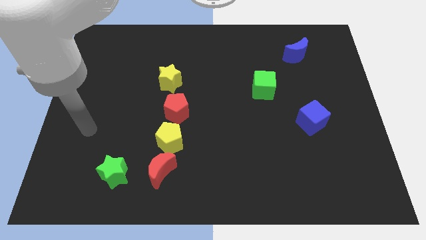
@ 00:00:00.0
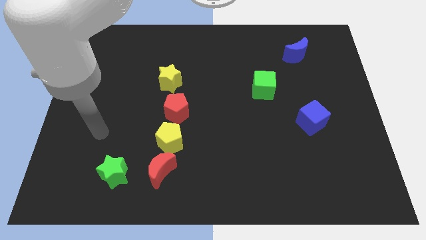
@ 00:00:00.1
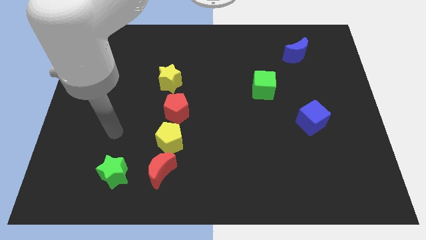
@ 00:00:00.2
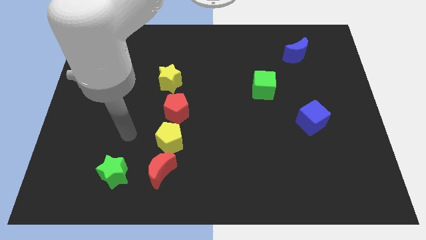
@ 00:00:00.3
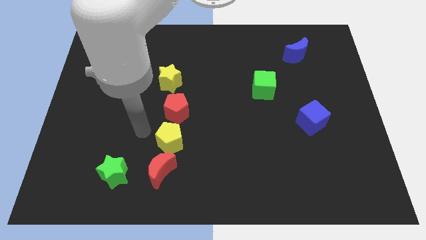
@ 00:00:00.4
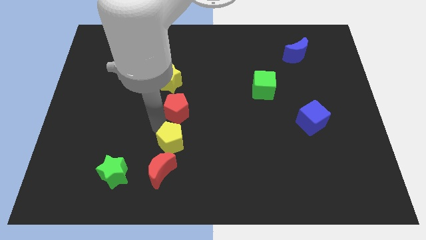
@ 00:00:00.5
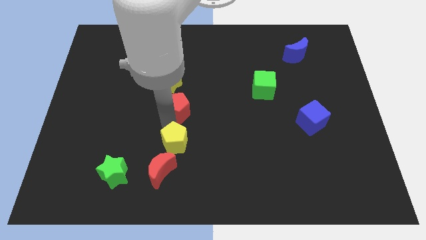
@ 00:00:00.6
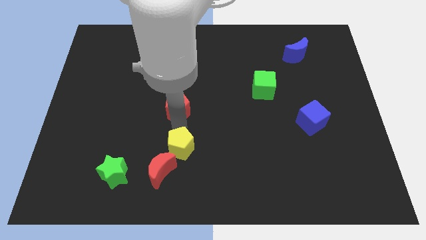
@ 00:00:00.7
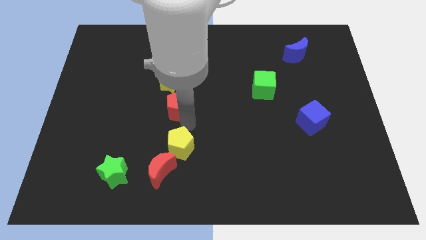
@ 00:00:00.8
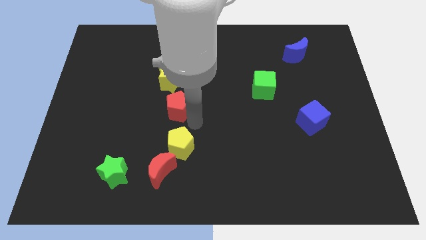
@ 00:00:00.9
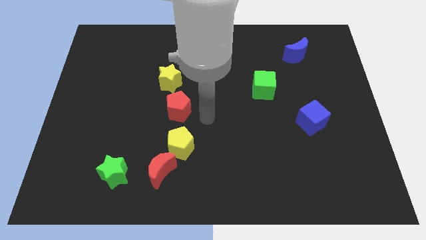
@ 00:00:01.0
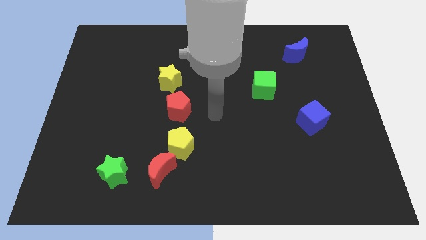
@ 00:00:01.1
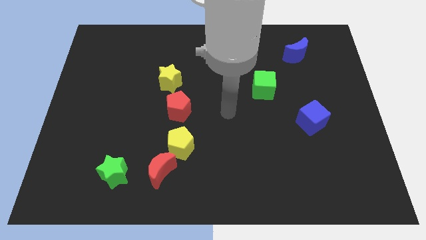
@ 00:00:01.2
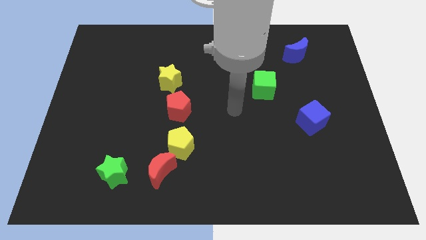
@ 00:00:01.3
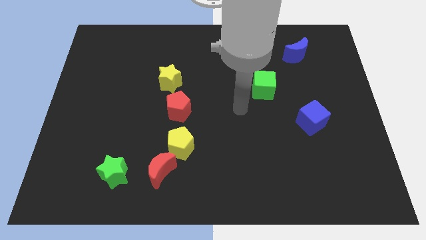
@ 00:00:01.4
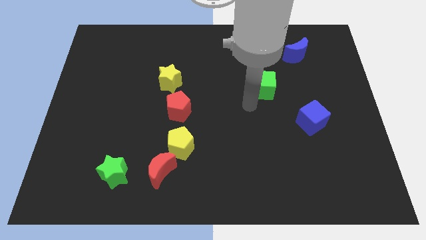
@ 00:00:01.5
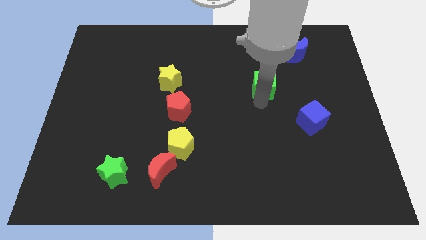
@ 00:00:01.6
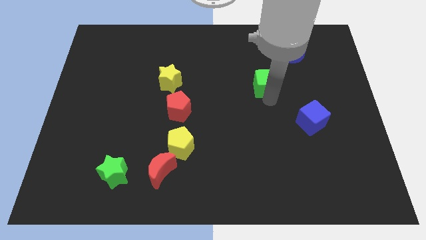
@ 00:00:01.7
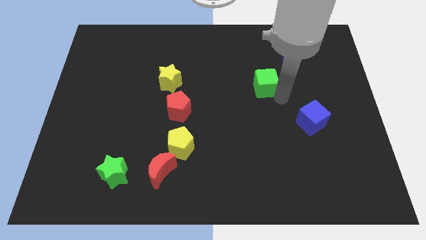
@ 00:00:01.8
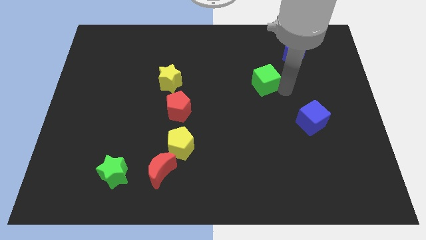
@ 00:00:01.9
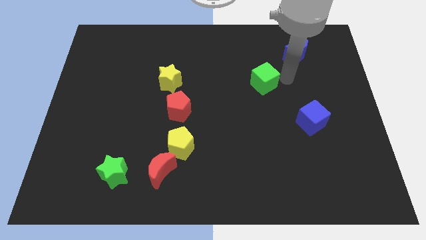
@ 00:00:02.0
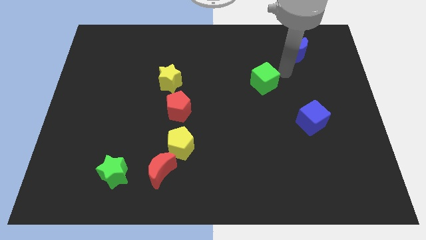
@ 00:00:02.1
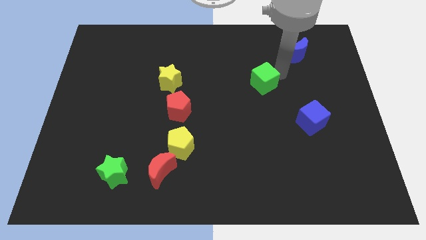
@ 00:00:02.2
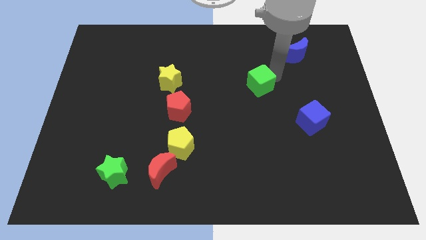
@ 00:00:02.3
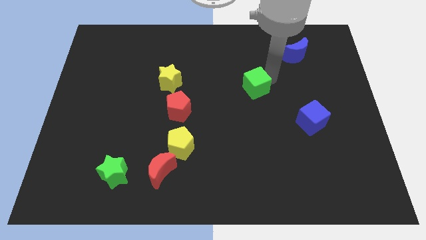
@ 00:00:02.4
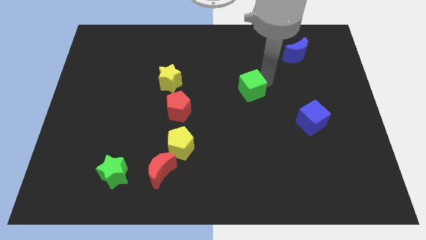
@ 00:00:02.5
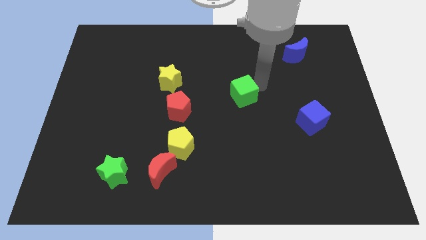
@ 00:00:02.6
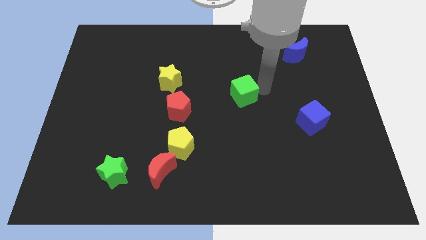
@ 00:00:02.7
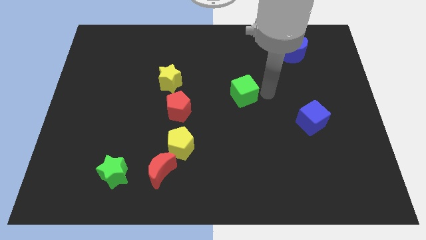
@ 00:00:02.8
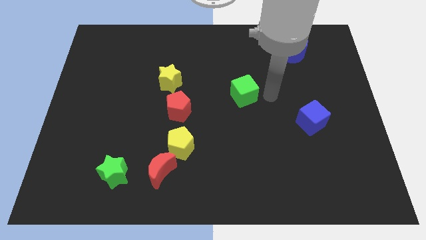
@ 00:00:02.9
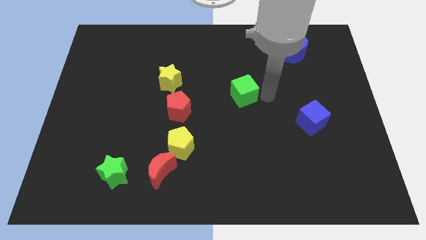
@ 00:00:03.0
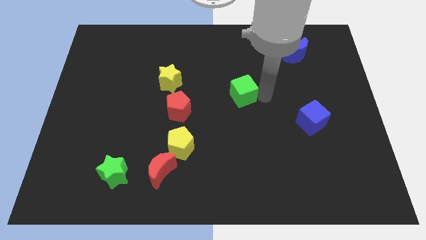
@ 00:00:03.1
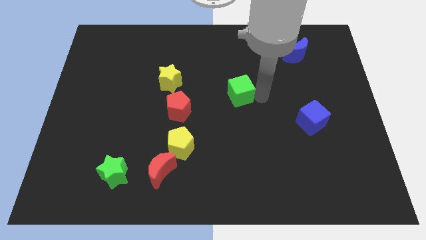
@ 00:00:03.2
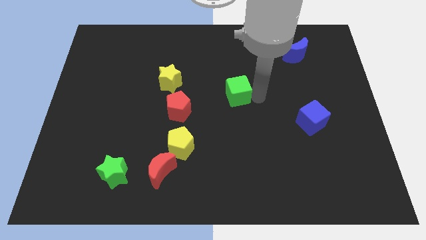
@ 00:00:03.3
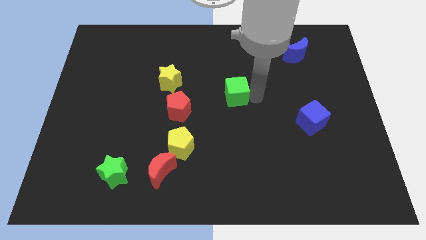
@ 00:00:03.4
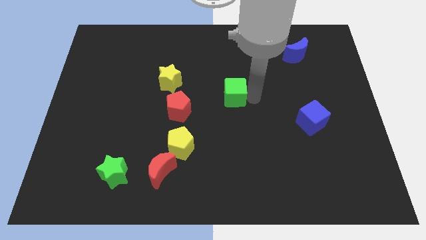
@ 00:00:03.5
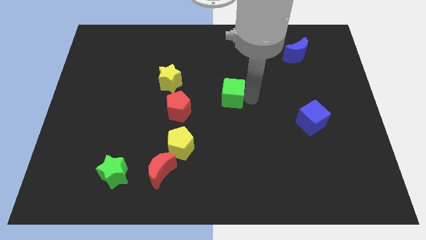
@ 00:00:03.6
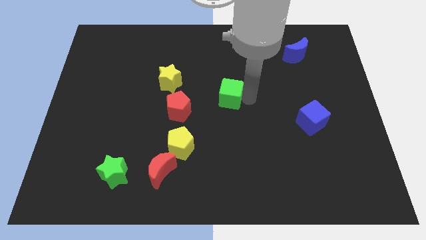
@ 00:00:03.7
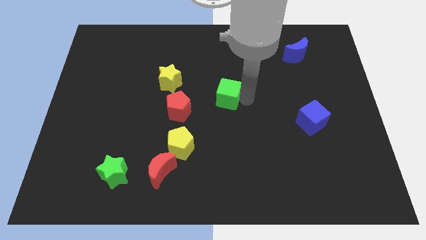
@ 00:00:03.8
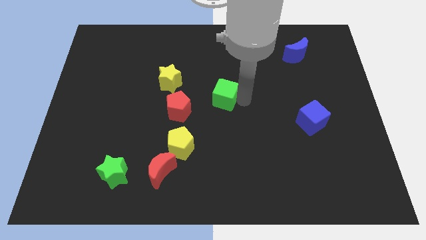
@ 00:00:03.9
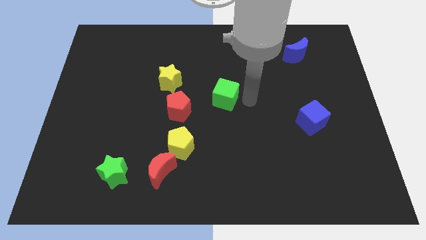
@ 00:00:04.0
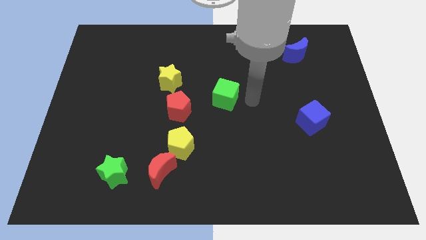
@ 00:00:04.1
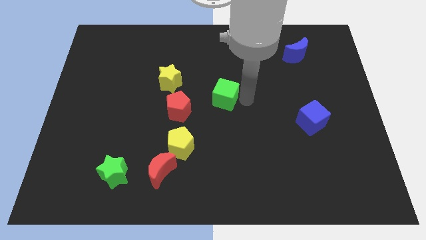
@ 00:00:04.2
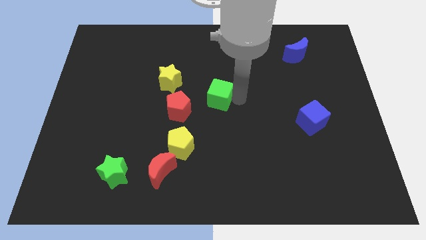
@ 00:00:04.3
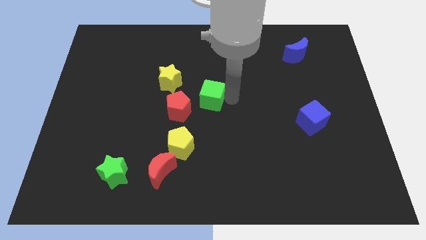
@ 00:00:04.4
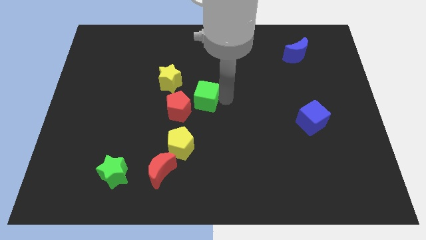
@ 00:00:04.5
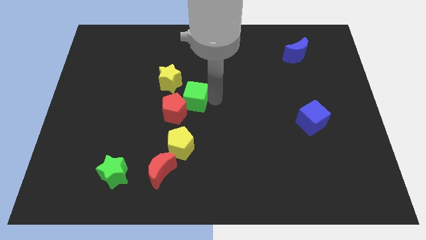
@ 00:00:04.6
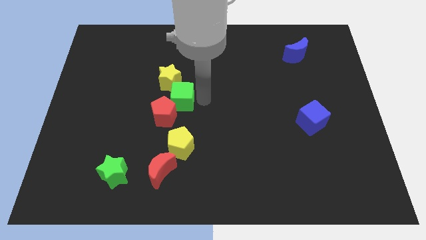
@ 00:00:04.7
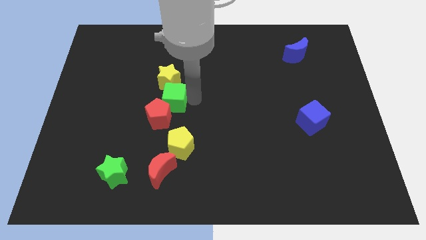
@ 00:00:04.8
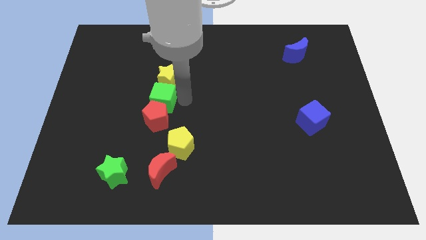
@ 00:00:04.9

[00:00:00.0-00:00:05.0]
move the green cube diagonally up and to the left of the red pentagon

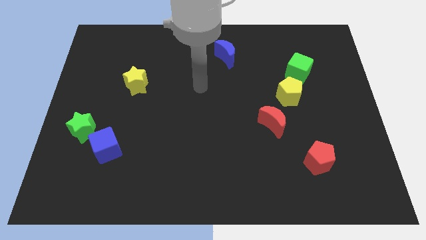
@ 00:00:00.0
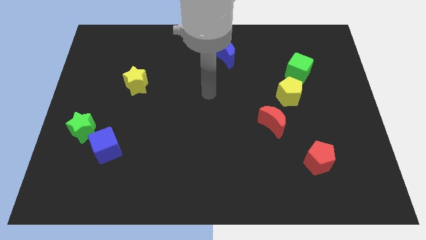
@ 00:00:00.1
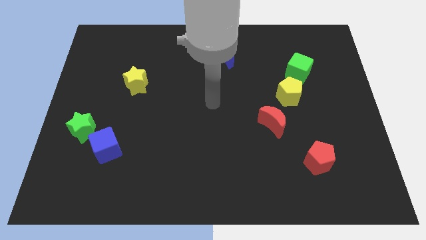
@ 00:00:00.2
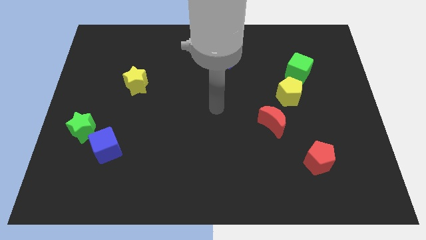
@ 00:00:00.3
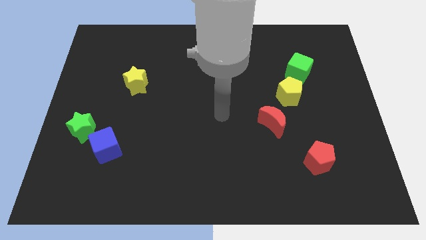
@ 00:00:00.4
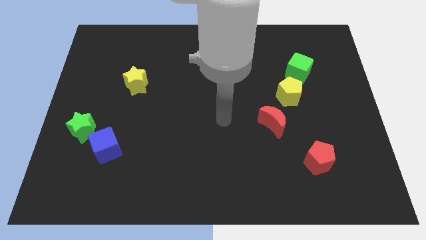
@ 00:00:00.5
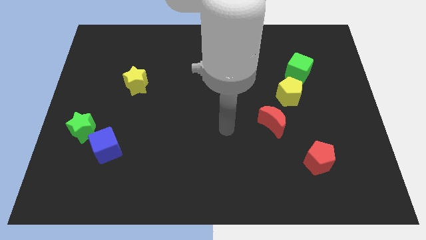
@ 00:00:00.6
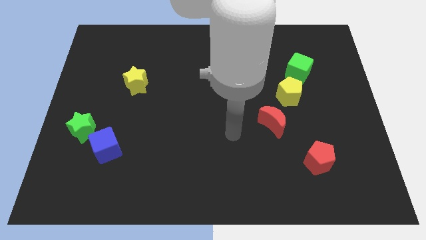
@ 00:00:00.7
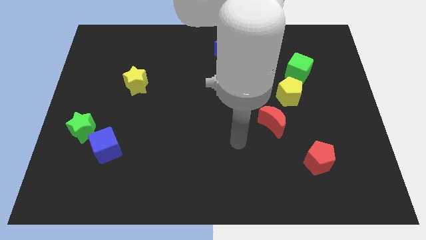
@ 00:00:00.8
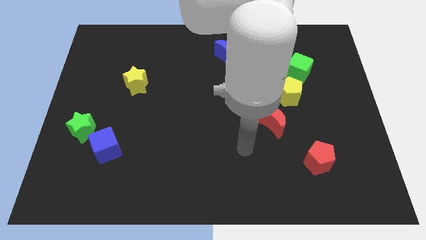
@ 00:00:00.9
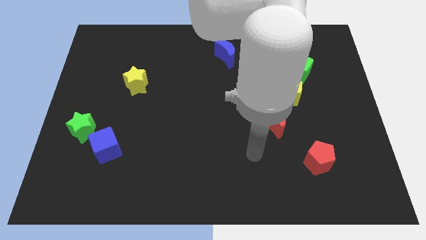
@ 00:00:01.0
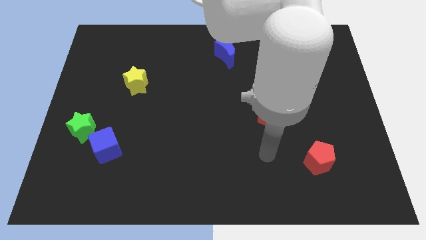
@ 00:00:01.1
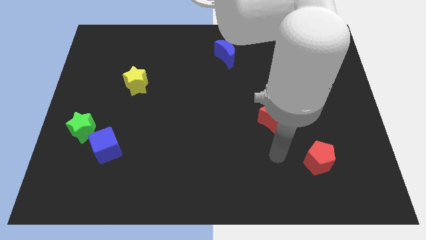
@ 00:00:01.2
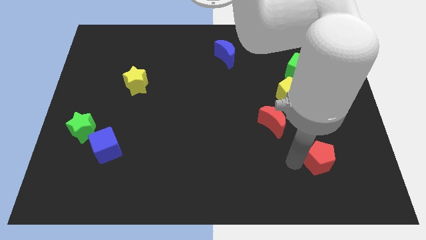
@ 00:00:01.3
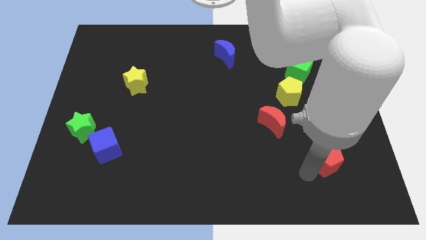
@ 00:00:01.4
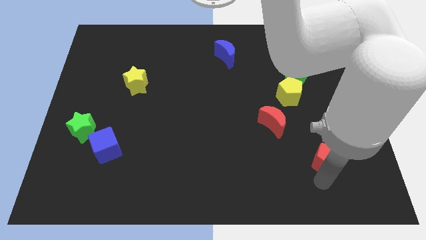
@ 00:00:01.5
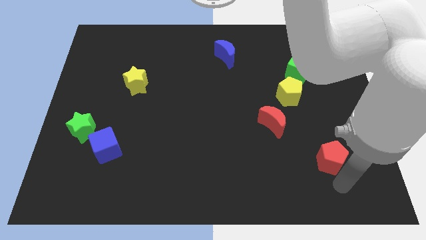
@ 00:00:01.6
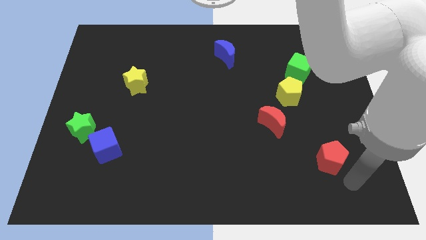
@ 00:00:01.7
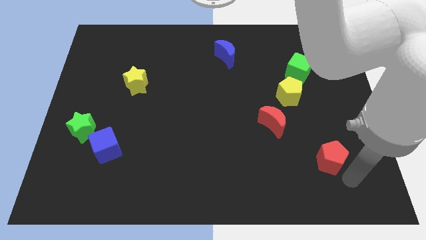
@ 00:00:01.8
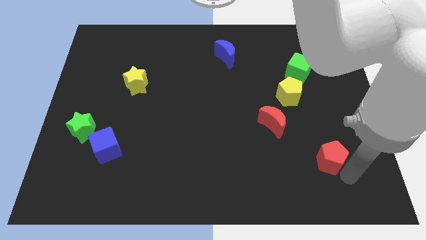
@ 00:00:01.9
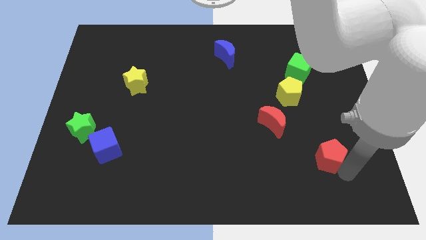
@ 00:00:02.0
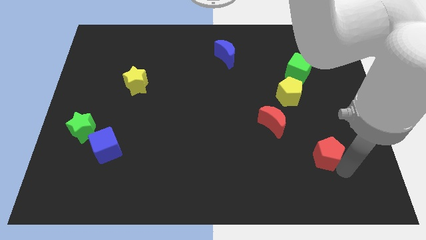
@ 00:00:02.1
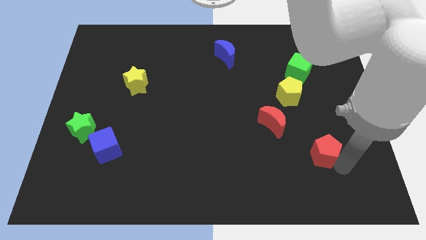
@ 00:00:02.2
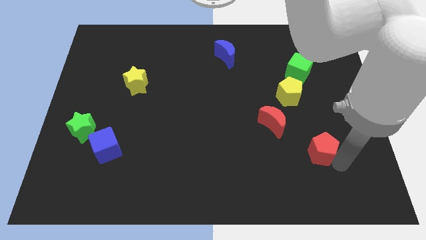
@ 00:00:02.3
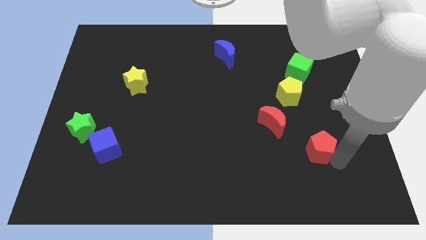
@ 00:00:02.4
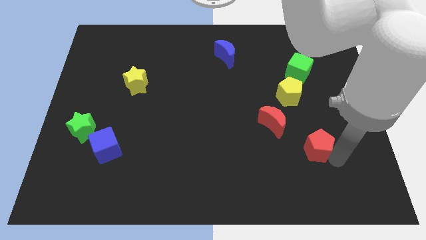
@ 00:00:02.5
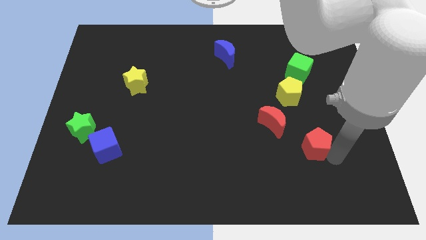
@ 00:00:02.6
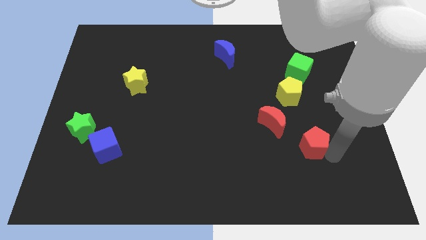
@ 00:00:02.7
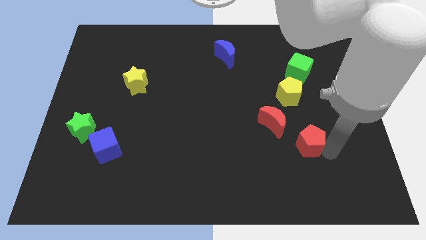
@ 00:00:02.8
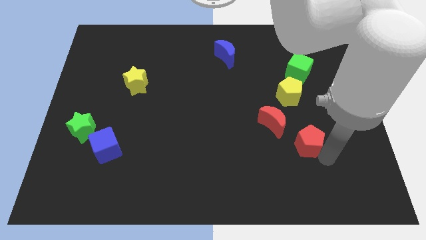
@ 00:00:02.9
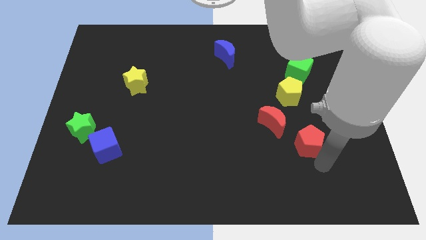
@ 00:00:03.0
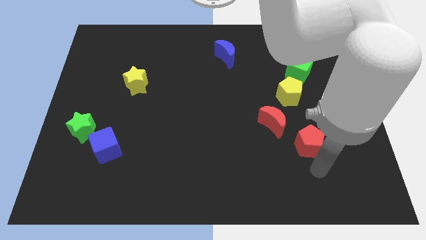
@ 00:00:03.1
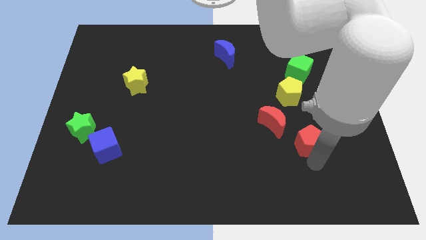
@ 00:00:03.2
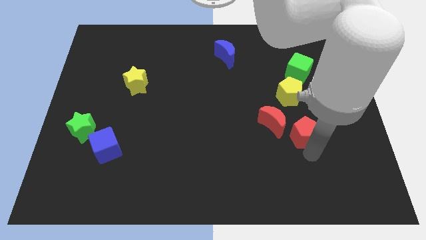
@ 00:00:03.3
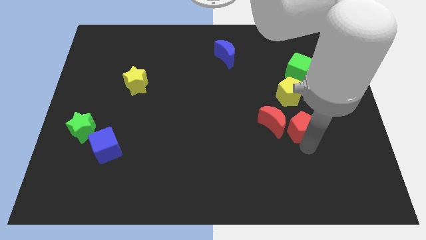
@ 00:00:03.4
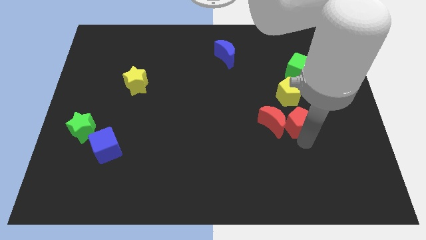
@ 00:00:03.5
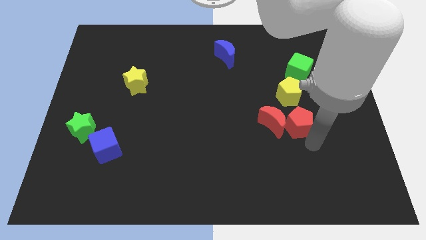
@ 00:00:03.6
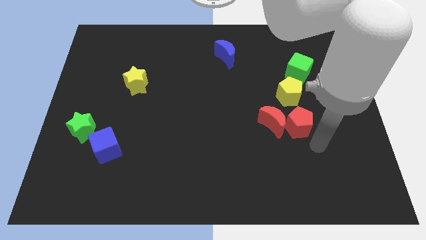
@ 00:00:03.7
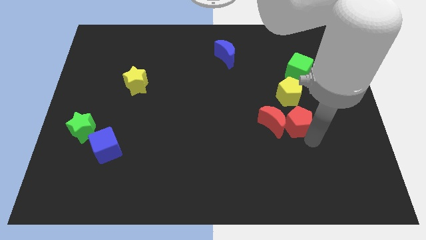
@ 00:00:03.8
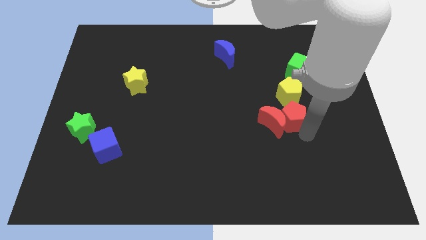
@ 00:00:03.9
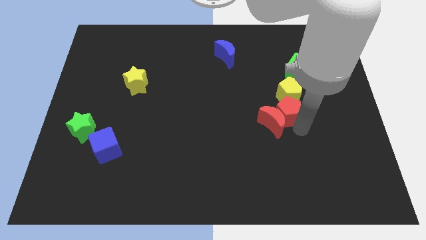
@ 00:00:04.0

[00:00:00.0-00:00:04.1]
move the red pentagon above the red moon
